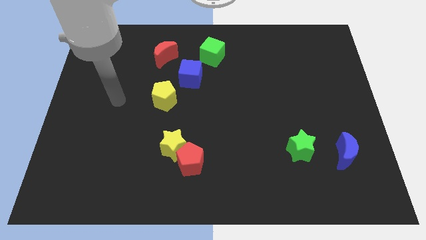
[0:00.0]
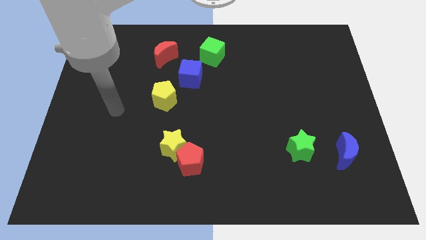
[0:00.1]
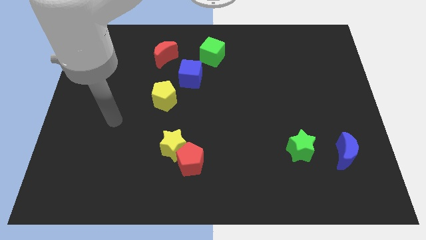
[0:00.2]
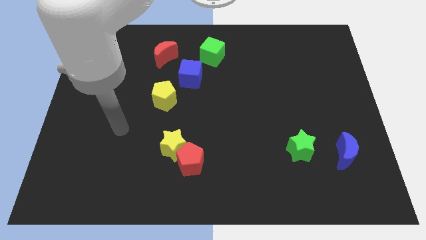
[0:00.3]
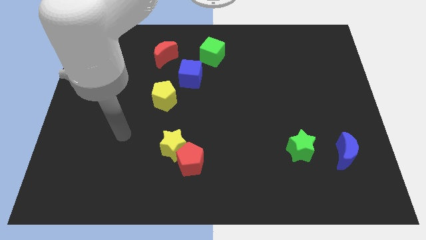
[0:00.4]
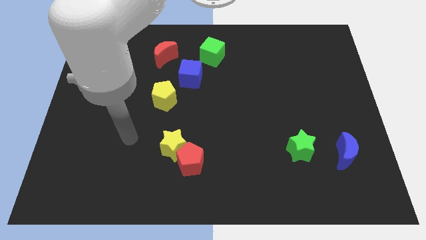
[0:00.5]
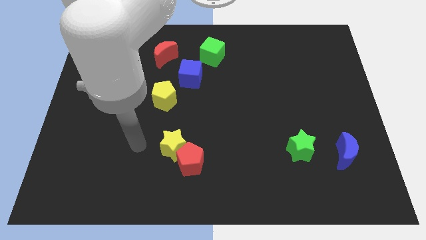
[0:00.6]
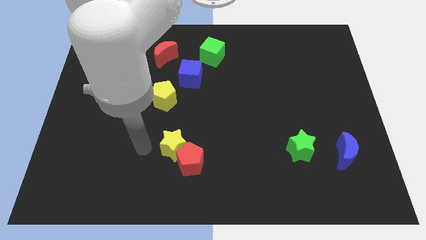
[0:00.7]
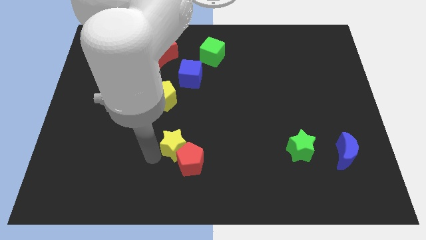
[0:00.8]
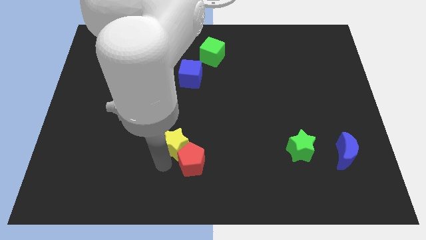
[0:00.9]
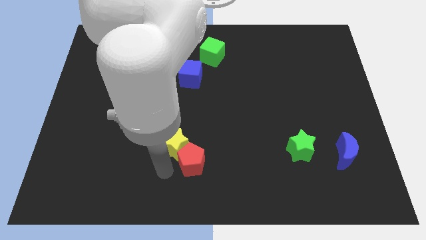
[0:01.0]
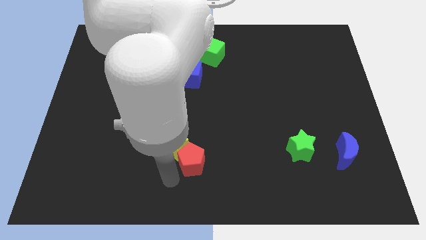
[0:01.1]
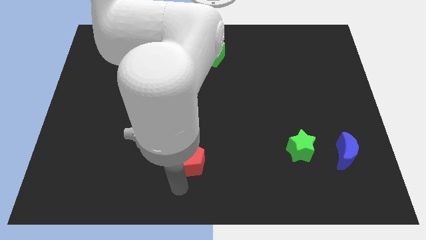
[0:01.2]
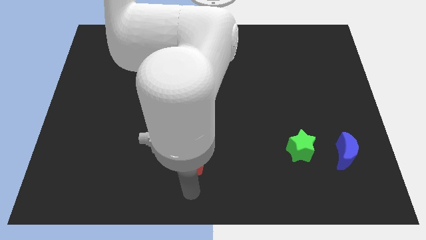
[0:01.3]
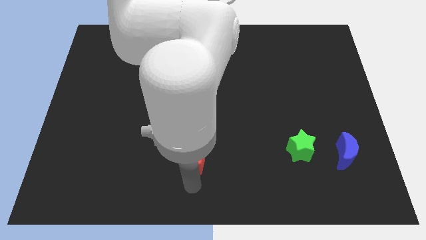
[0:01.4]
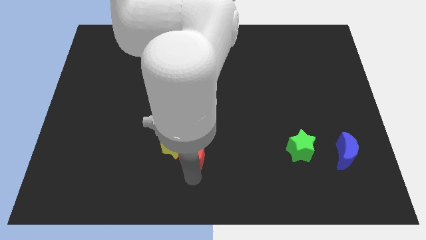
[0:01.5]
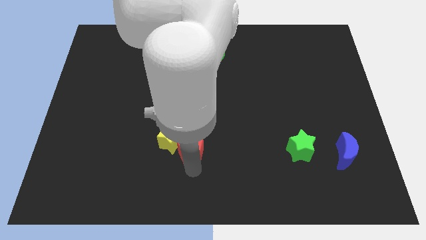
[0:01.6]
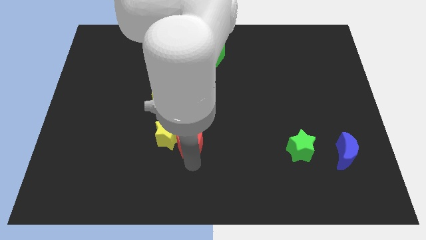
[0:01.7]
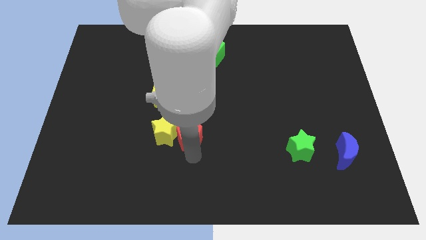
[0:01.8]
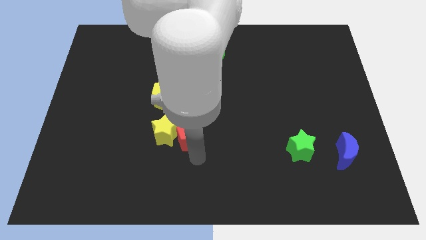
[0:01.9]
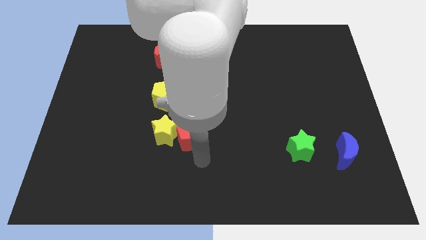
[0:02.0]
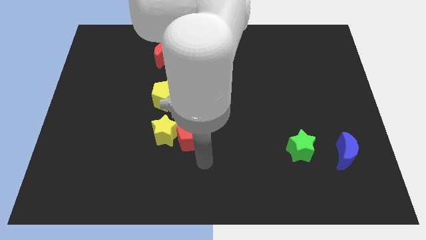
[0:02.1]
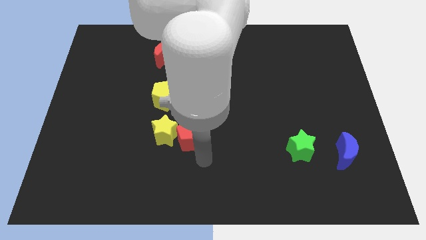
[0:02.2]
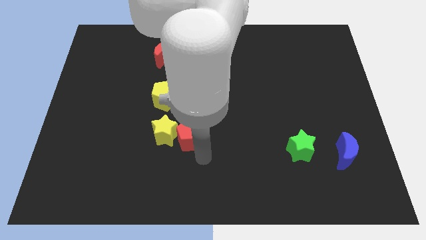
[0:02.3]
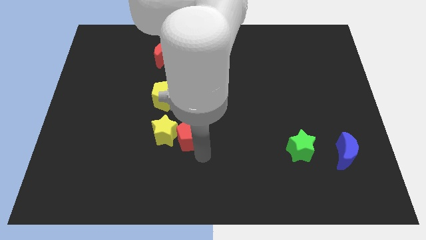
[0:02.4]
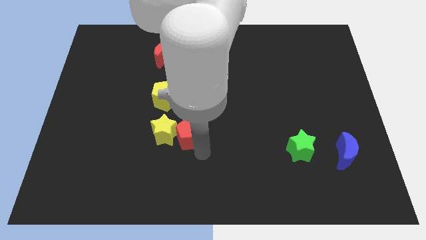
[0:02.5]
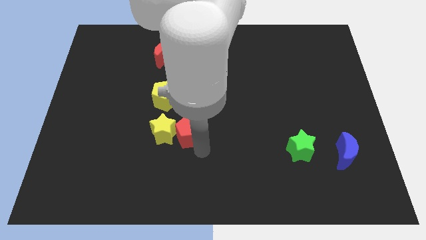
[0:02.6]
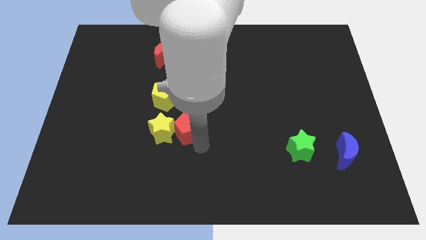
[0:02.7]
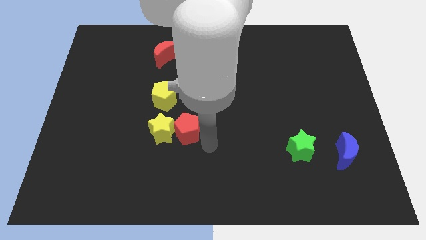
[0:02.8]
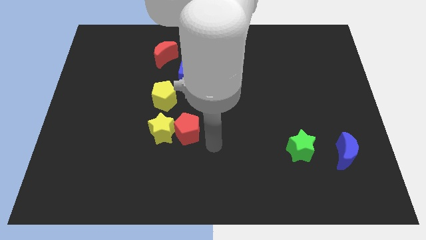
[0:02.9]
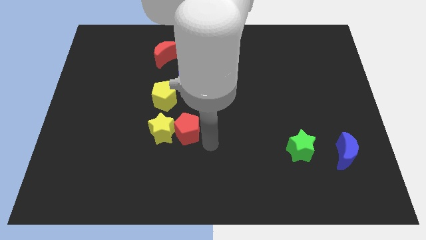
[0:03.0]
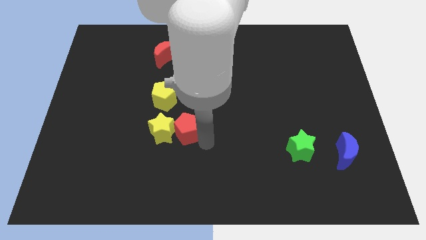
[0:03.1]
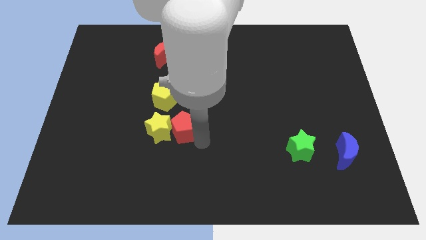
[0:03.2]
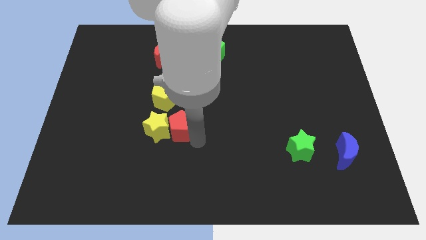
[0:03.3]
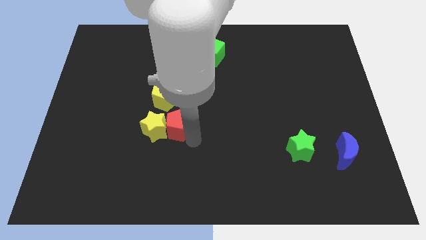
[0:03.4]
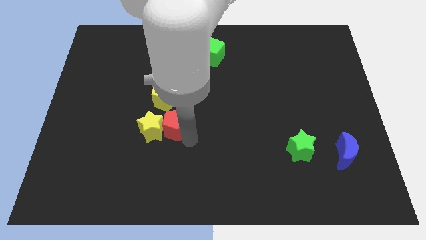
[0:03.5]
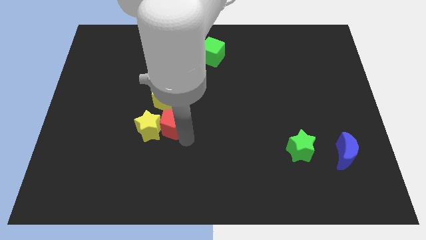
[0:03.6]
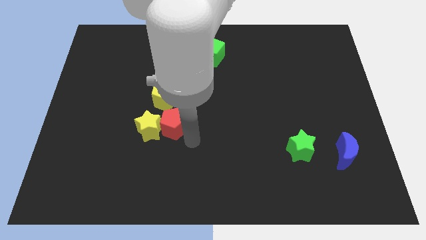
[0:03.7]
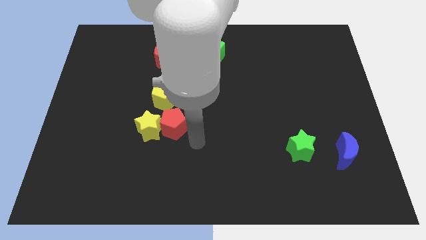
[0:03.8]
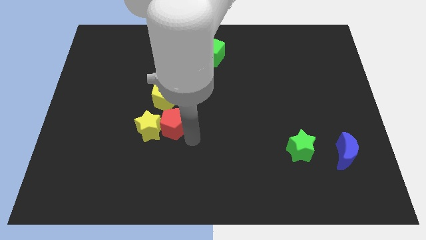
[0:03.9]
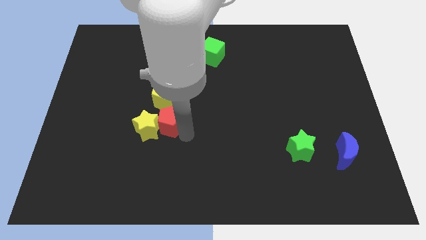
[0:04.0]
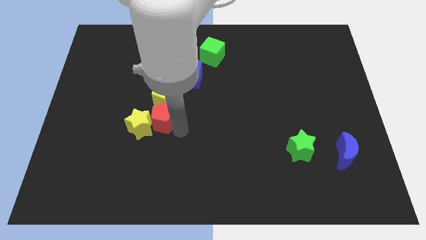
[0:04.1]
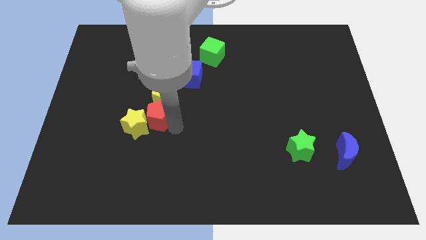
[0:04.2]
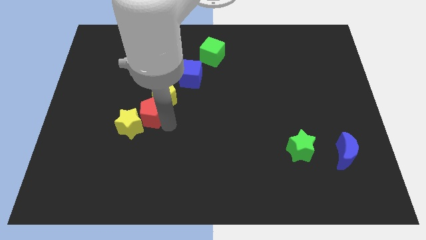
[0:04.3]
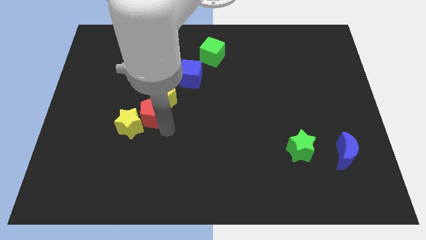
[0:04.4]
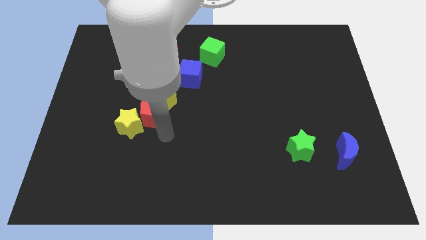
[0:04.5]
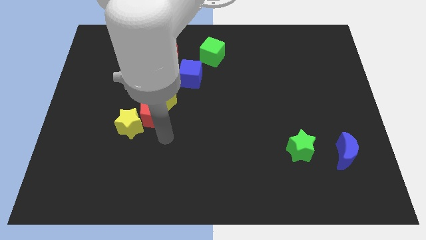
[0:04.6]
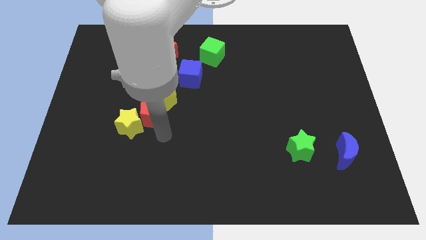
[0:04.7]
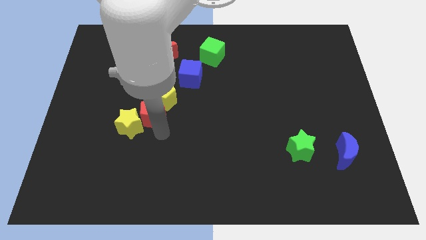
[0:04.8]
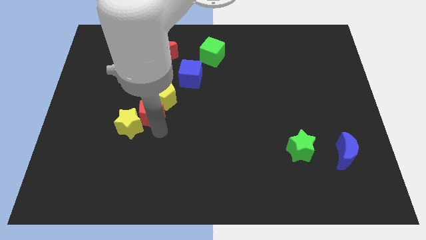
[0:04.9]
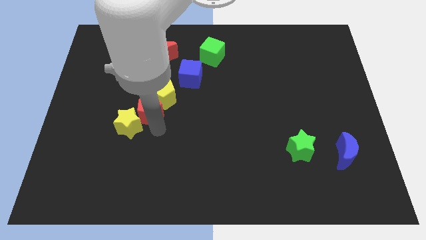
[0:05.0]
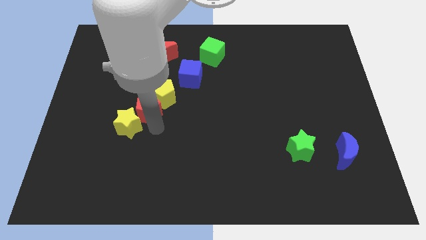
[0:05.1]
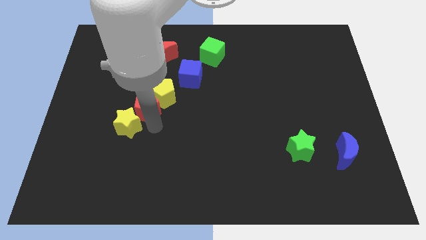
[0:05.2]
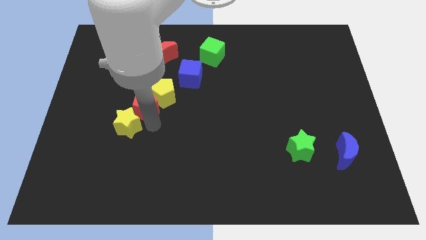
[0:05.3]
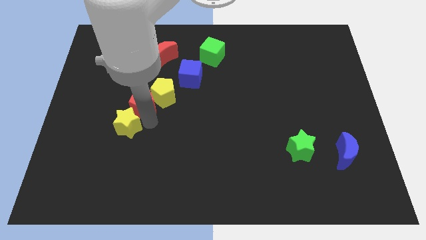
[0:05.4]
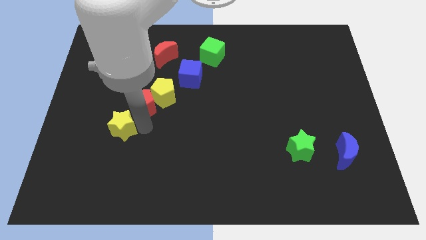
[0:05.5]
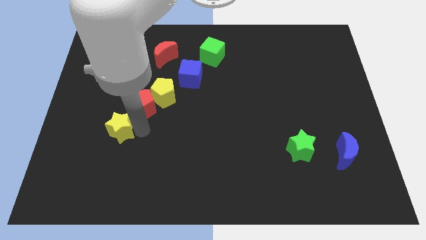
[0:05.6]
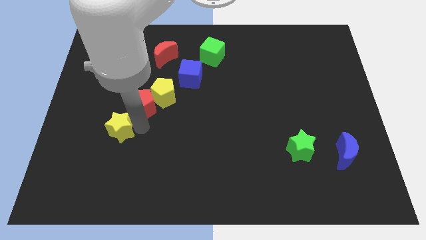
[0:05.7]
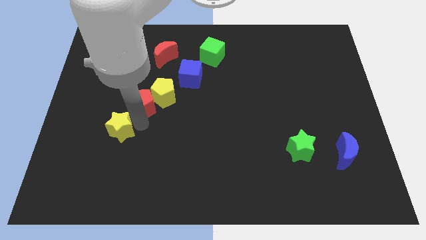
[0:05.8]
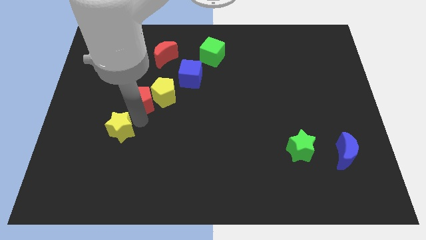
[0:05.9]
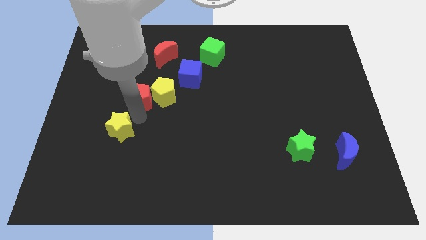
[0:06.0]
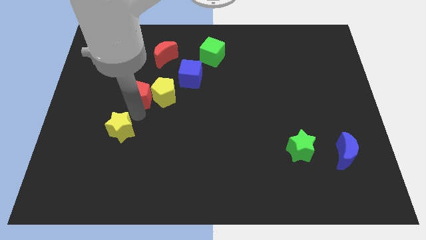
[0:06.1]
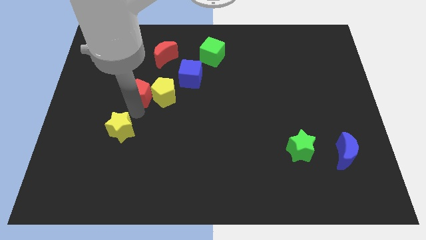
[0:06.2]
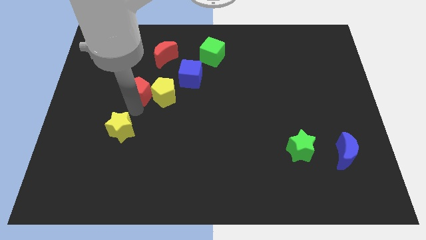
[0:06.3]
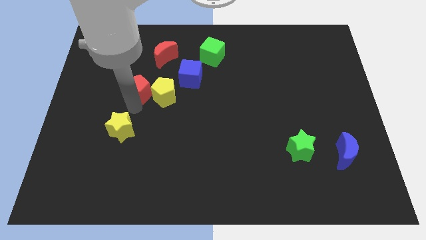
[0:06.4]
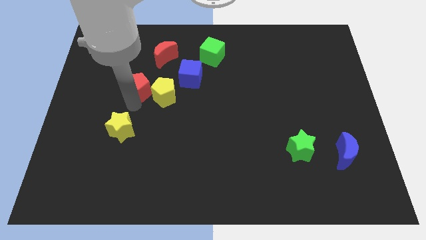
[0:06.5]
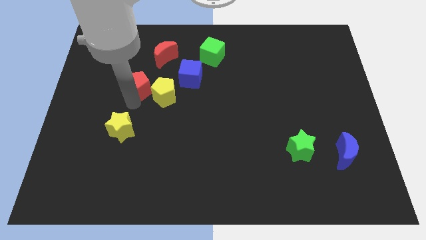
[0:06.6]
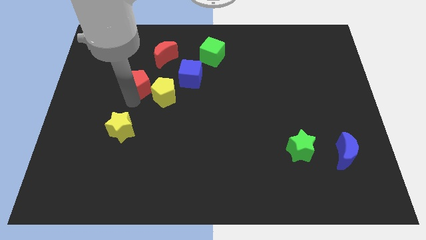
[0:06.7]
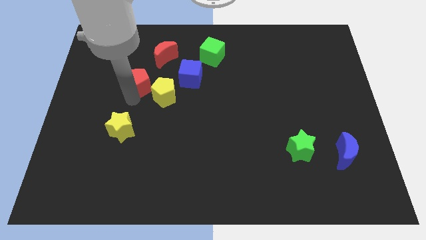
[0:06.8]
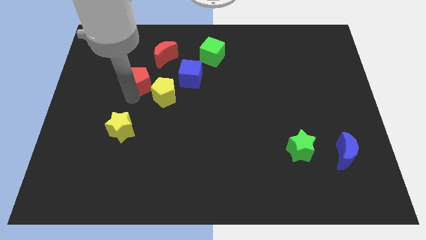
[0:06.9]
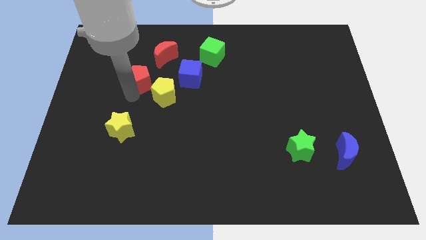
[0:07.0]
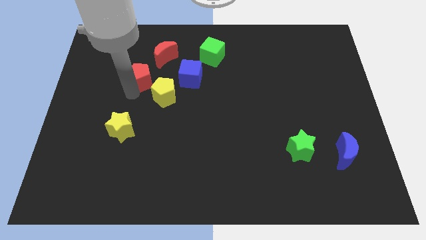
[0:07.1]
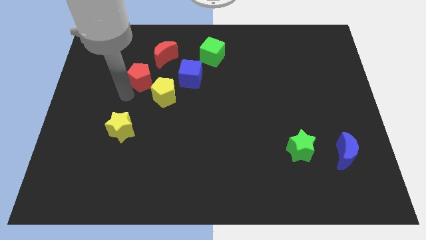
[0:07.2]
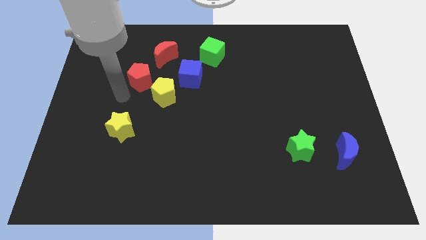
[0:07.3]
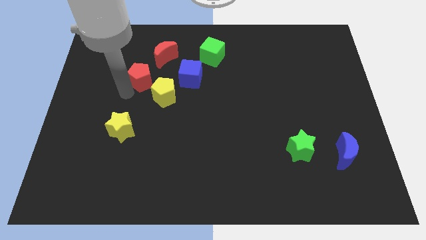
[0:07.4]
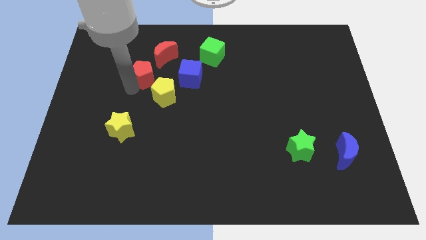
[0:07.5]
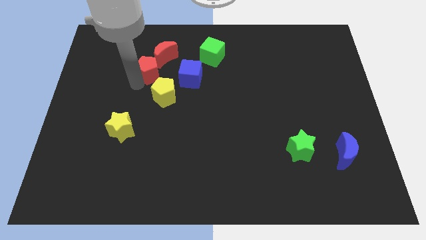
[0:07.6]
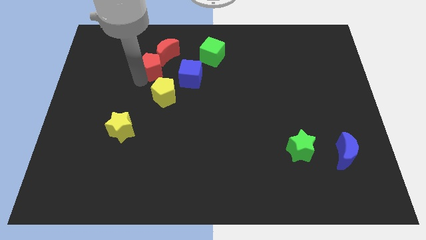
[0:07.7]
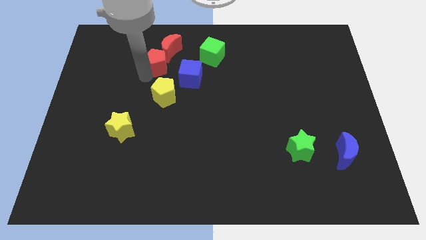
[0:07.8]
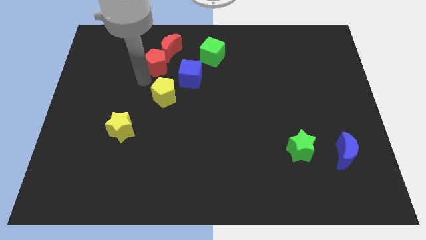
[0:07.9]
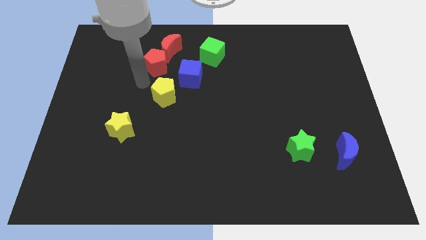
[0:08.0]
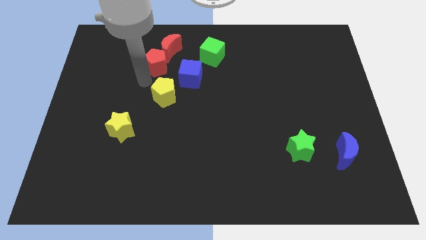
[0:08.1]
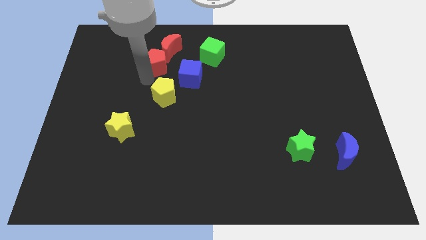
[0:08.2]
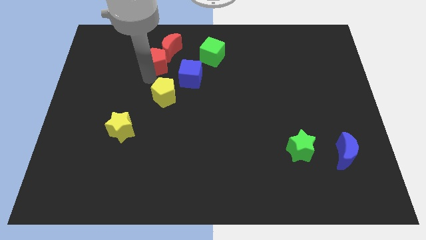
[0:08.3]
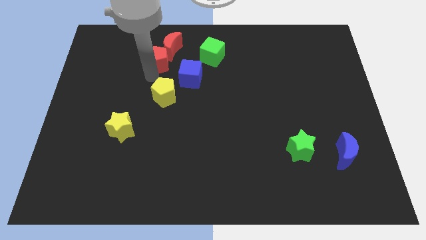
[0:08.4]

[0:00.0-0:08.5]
move the red pentagon close to the red moon
